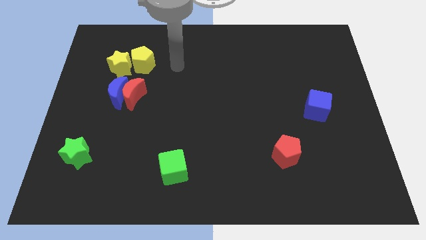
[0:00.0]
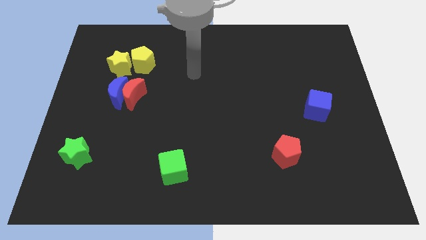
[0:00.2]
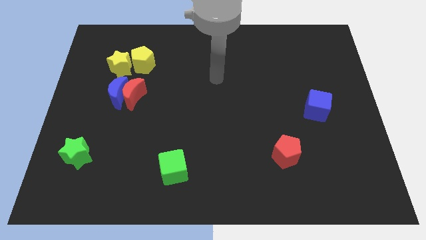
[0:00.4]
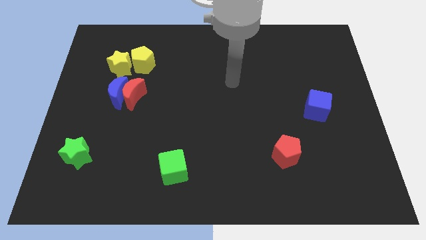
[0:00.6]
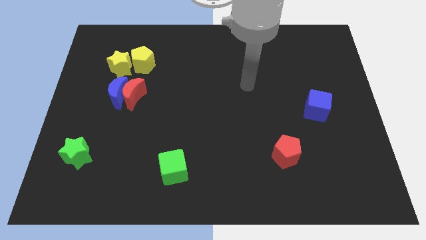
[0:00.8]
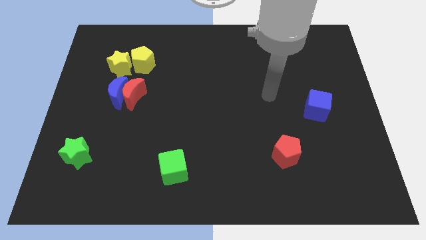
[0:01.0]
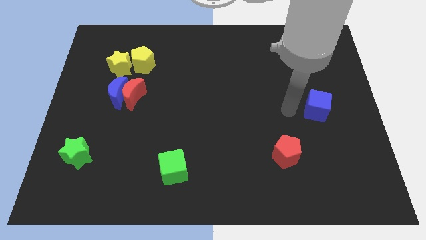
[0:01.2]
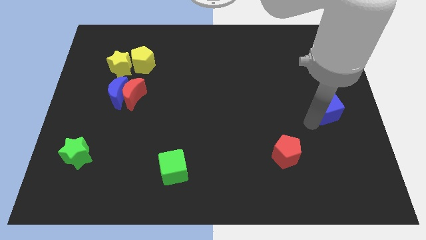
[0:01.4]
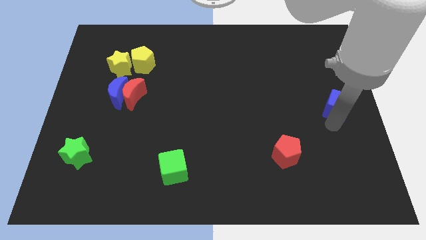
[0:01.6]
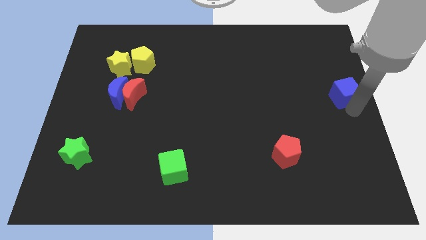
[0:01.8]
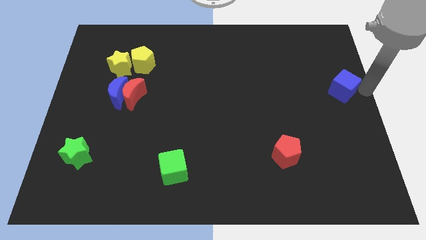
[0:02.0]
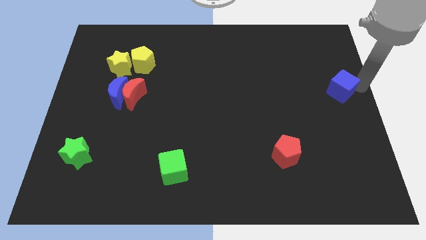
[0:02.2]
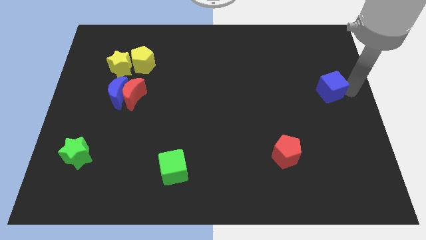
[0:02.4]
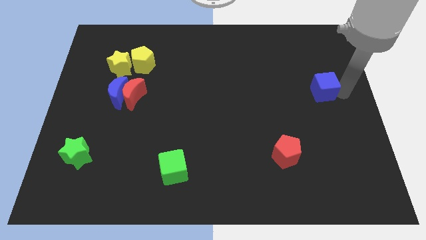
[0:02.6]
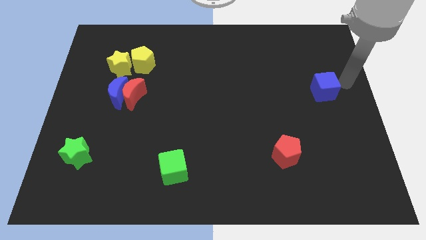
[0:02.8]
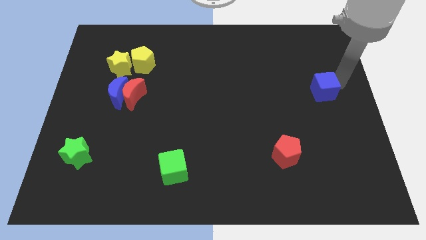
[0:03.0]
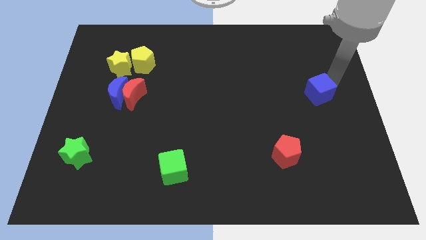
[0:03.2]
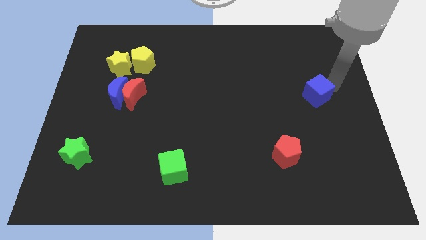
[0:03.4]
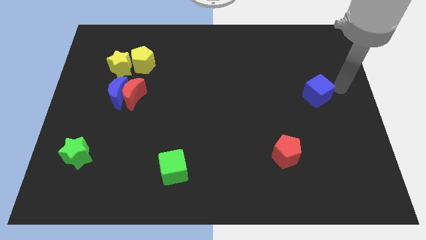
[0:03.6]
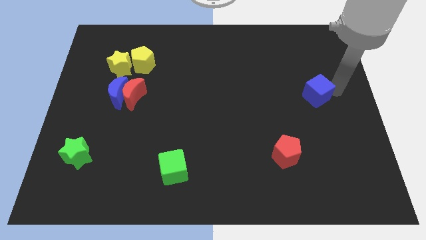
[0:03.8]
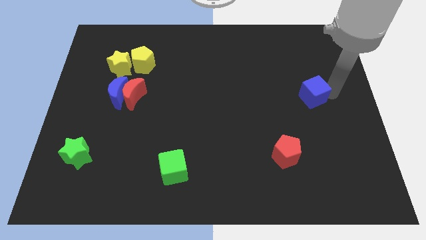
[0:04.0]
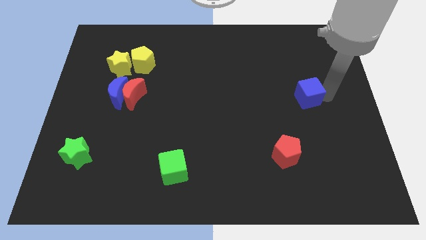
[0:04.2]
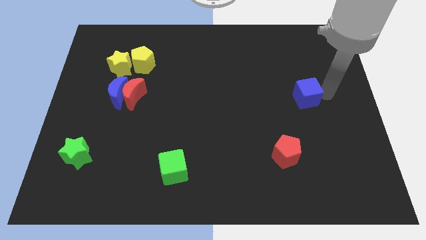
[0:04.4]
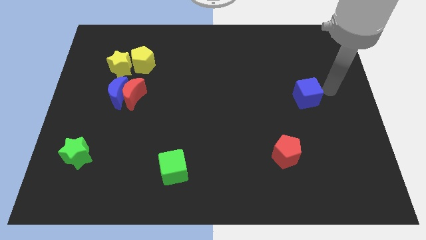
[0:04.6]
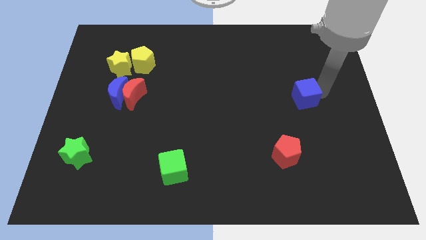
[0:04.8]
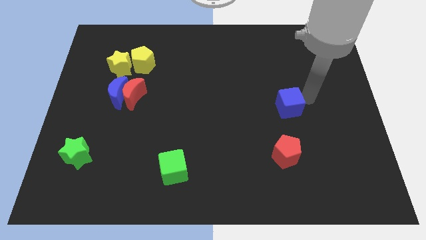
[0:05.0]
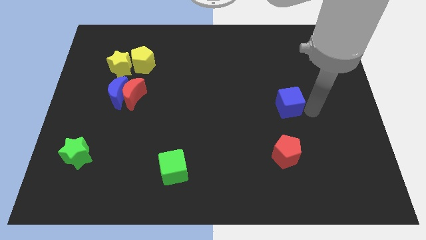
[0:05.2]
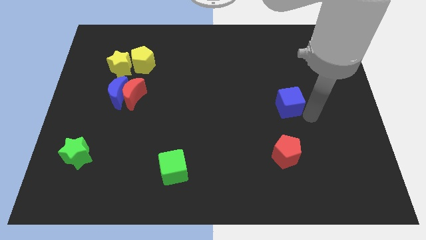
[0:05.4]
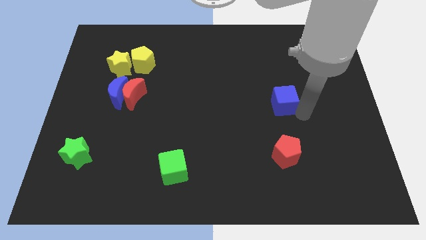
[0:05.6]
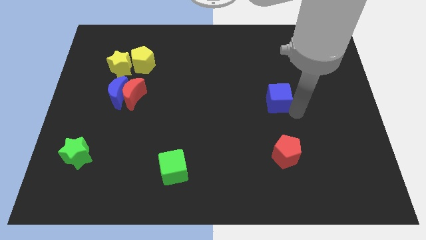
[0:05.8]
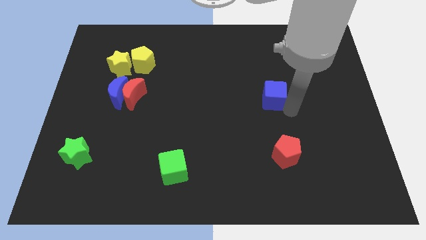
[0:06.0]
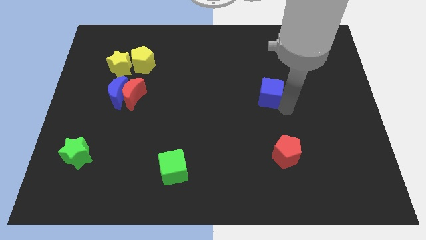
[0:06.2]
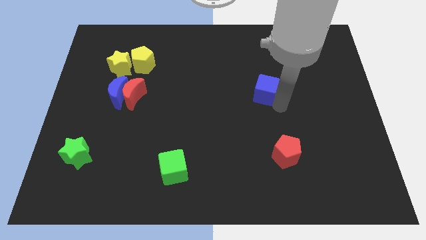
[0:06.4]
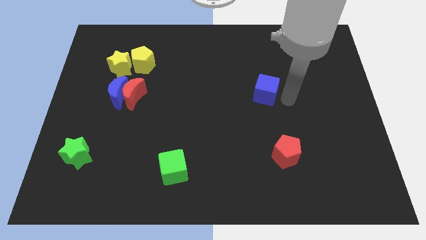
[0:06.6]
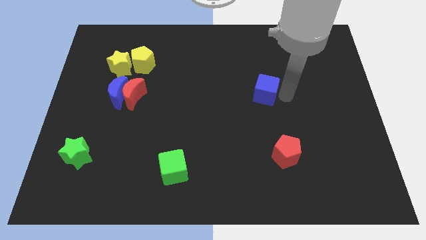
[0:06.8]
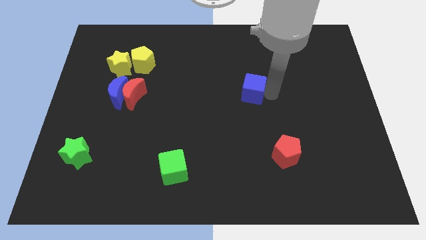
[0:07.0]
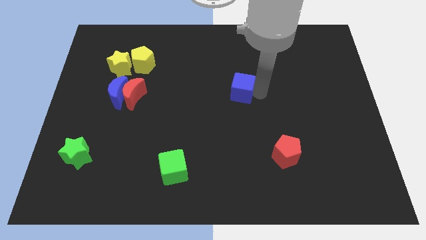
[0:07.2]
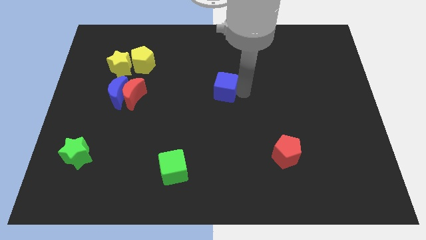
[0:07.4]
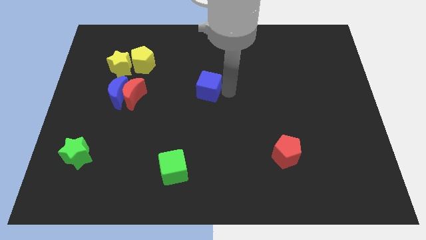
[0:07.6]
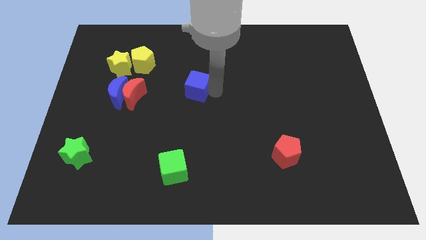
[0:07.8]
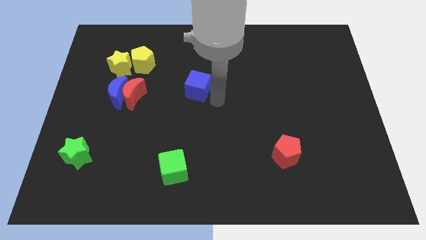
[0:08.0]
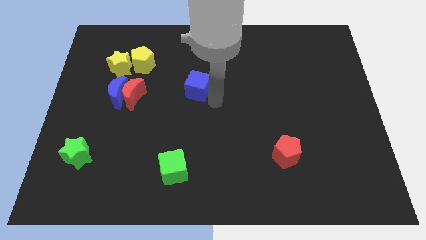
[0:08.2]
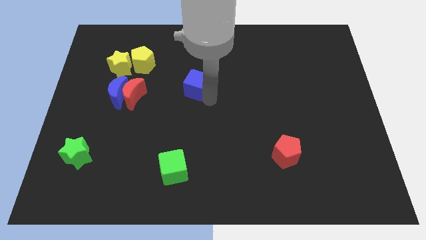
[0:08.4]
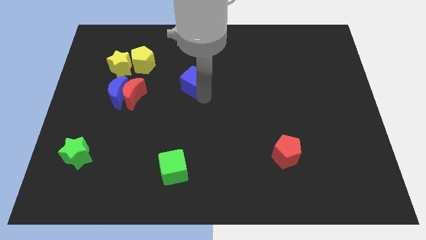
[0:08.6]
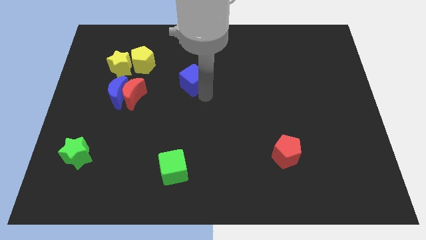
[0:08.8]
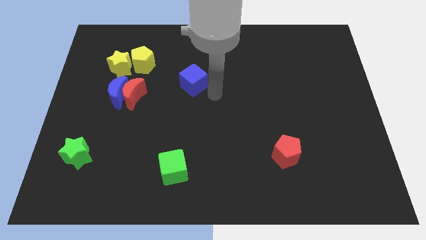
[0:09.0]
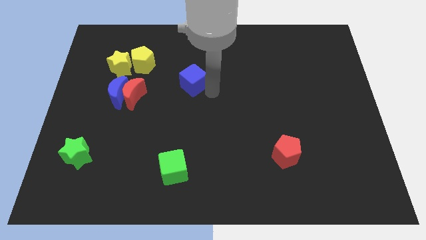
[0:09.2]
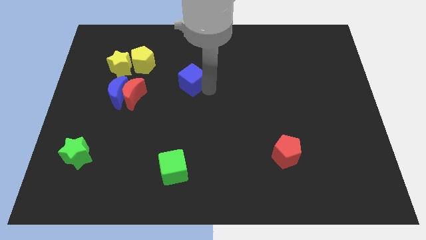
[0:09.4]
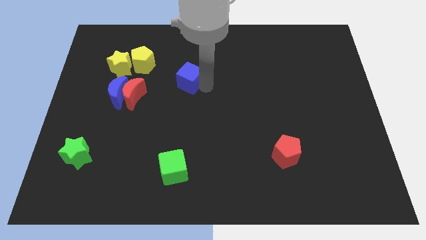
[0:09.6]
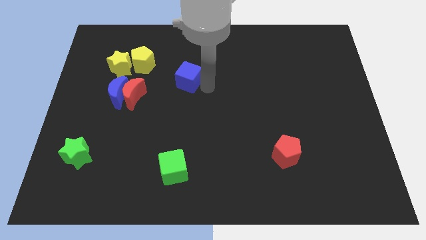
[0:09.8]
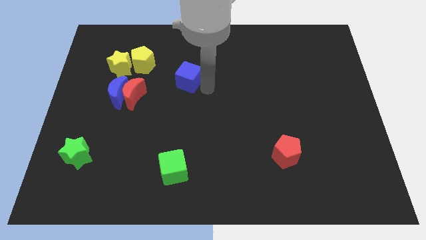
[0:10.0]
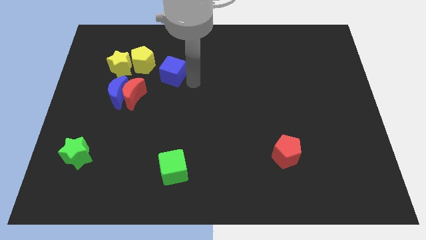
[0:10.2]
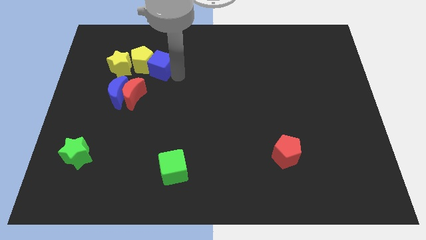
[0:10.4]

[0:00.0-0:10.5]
move the blue cube towards the yellow pentagon

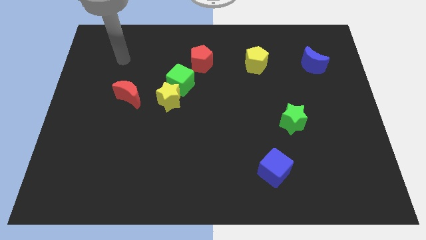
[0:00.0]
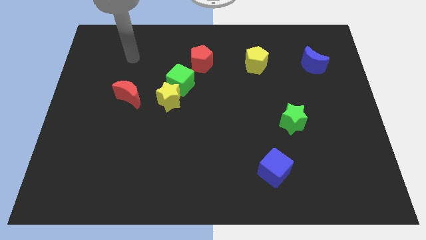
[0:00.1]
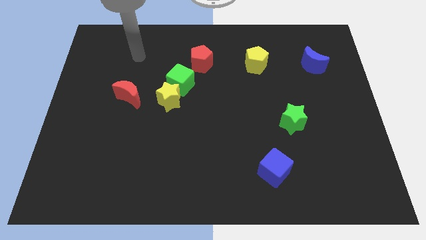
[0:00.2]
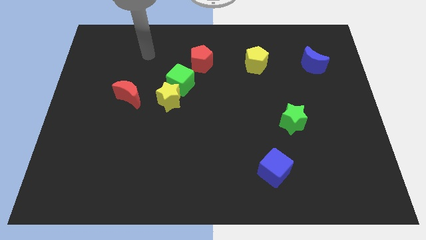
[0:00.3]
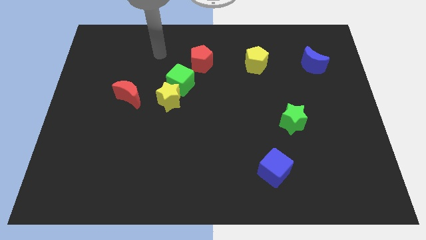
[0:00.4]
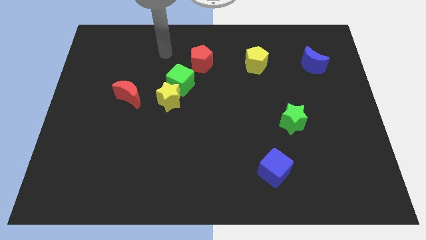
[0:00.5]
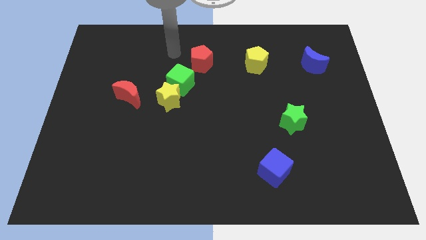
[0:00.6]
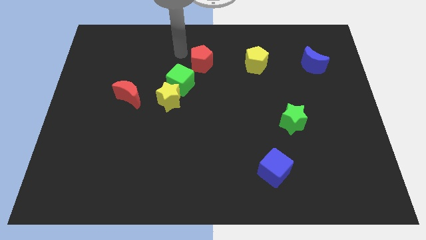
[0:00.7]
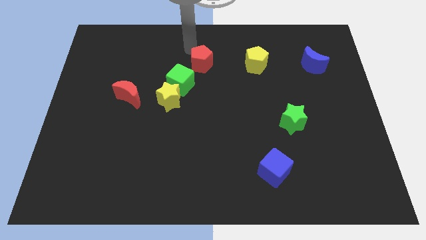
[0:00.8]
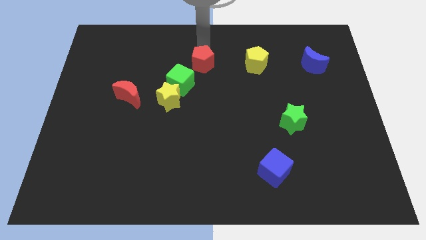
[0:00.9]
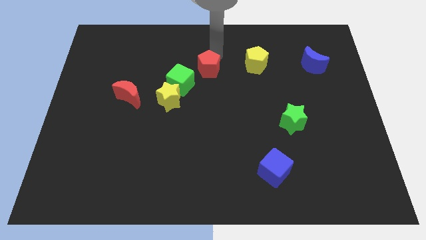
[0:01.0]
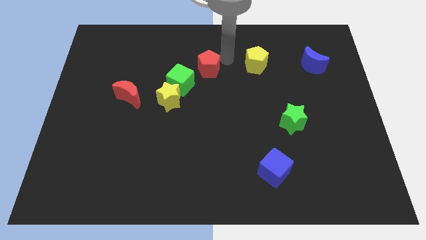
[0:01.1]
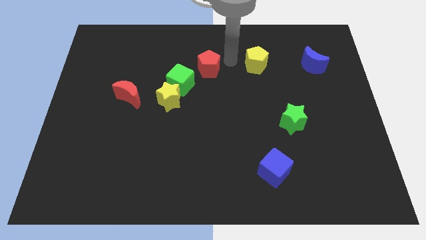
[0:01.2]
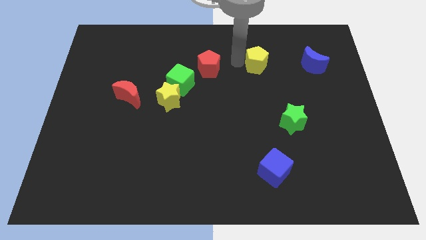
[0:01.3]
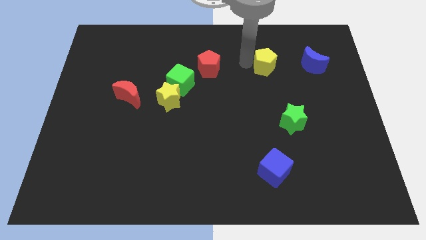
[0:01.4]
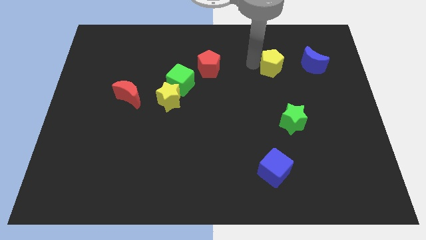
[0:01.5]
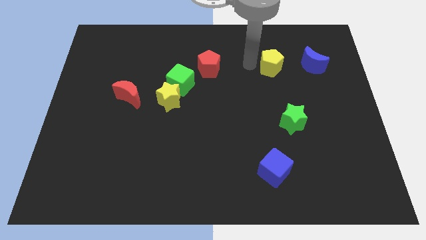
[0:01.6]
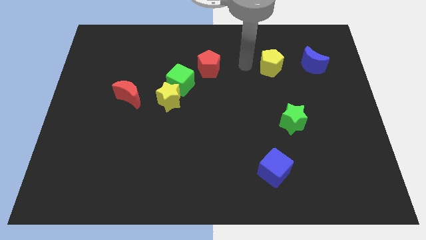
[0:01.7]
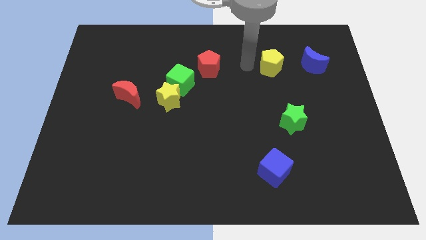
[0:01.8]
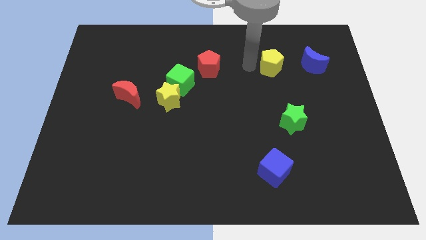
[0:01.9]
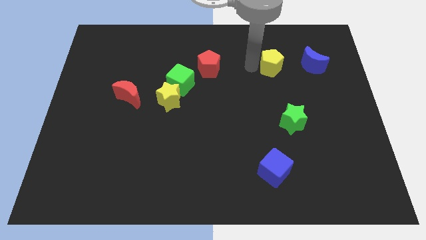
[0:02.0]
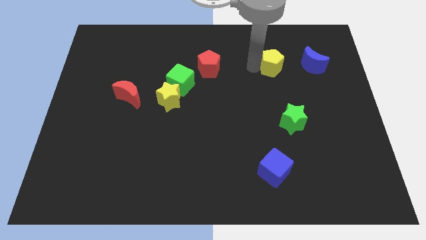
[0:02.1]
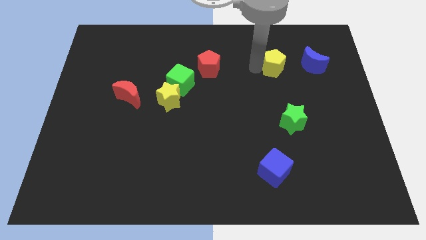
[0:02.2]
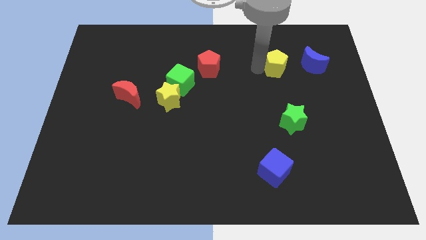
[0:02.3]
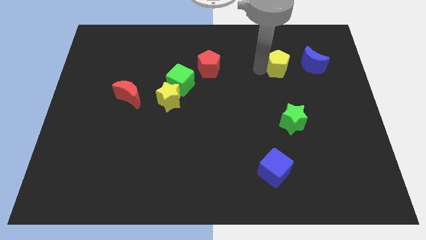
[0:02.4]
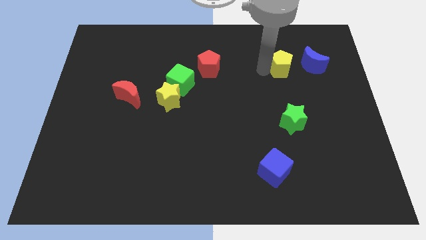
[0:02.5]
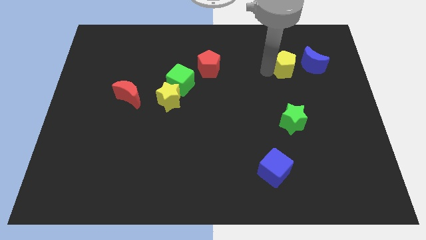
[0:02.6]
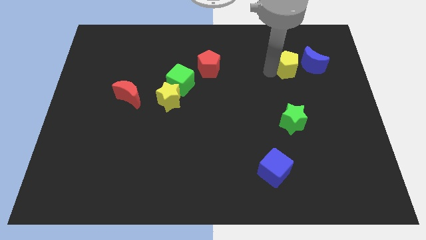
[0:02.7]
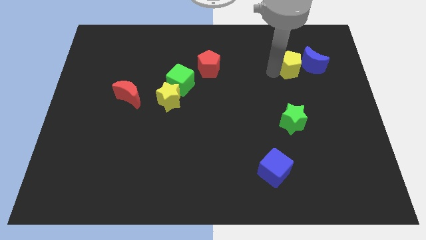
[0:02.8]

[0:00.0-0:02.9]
push the yellow pentagon close to the blue moon
